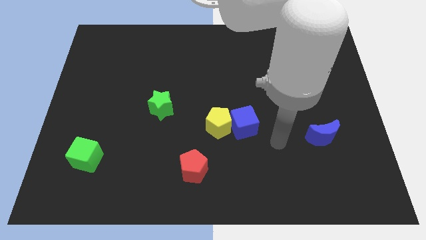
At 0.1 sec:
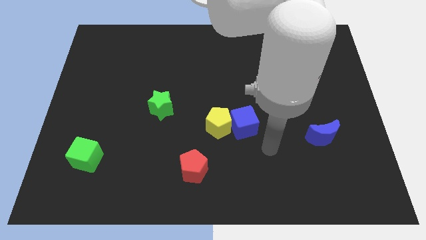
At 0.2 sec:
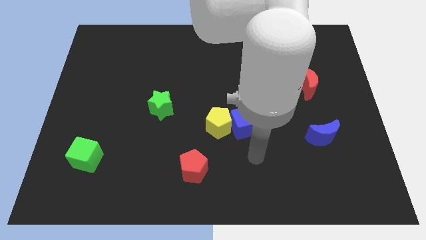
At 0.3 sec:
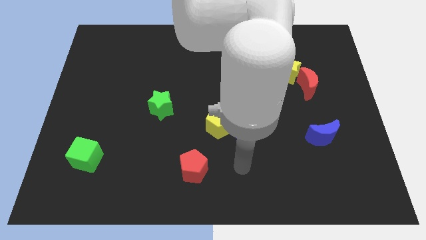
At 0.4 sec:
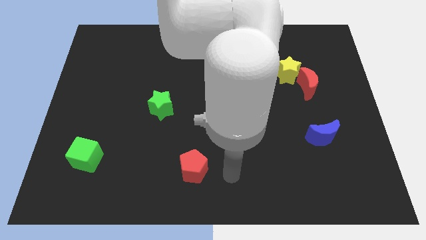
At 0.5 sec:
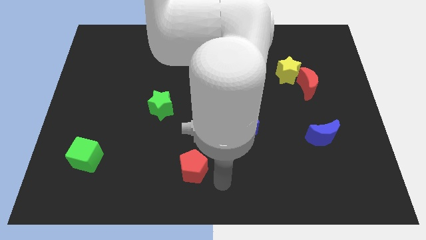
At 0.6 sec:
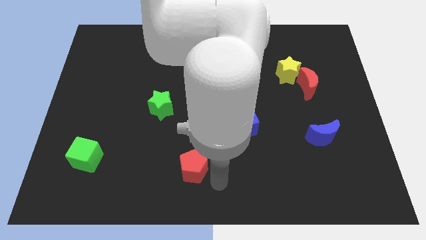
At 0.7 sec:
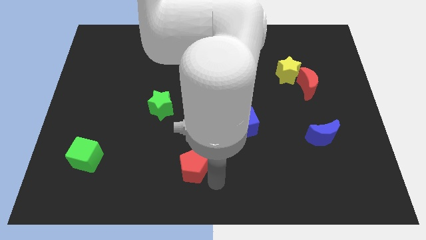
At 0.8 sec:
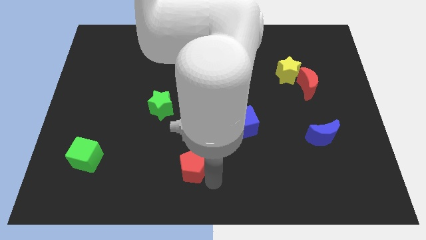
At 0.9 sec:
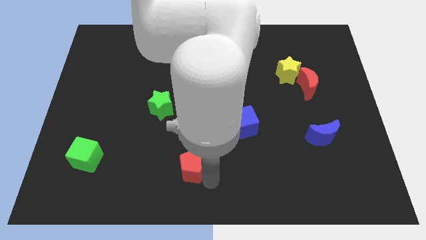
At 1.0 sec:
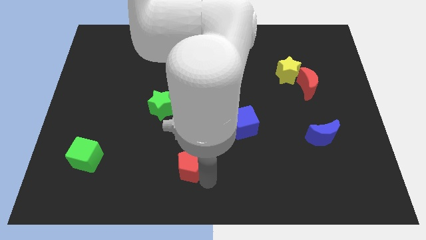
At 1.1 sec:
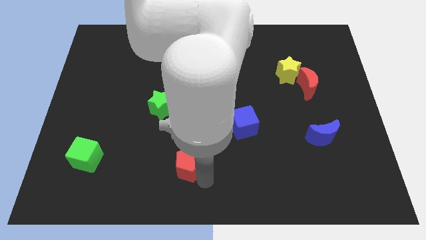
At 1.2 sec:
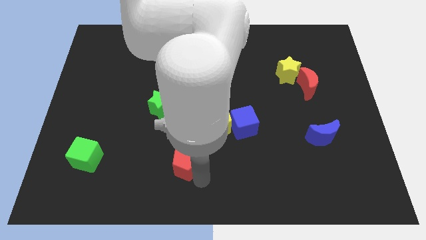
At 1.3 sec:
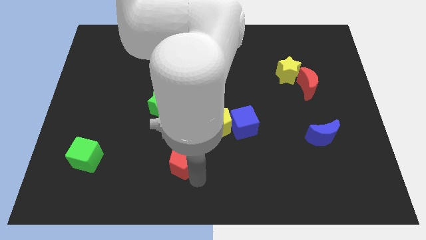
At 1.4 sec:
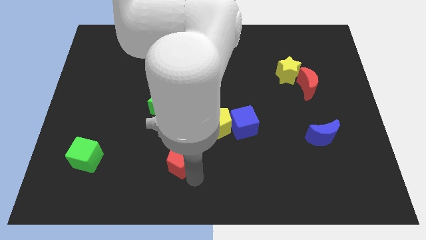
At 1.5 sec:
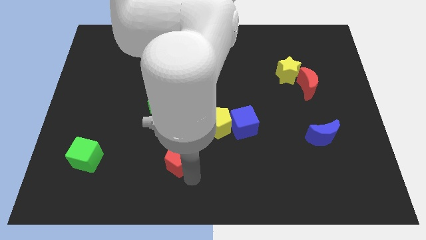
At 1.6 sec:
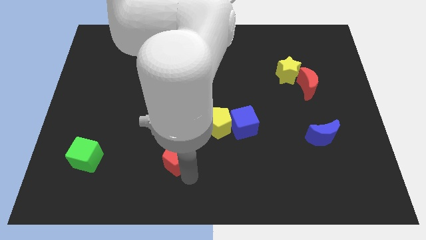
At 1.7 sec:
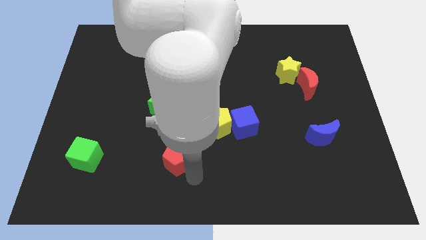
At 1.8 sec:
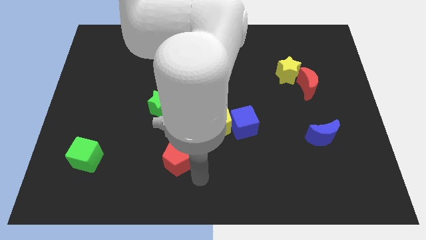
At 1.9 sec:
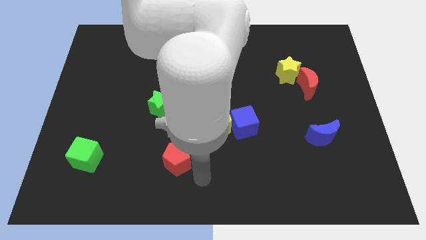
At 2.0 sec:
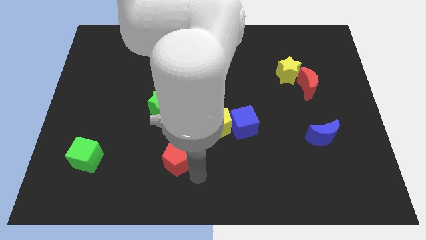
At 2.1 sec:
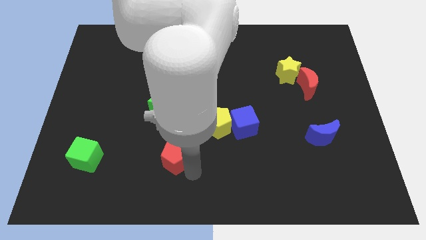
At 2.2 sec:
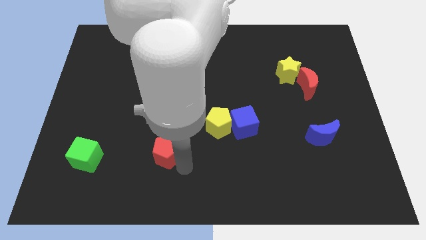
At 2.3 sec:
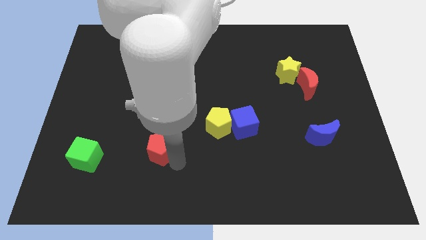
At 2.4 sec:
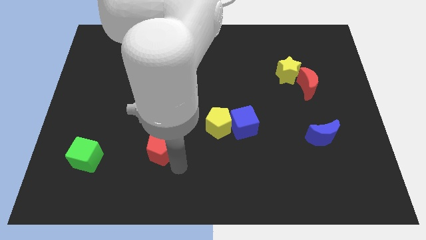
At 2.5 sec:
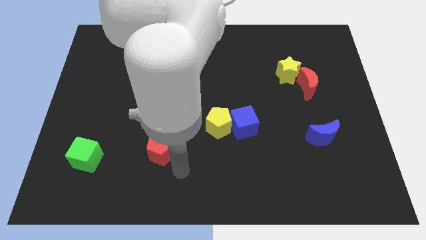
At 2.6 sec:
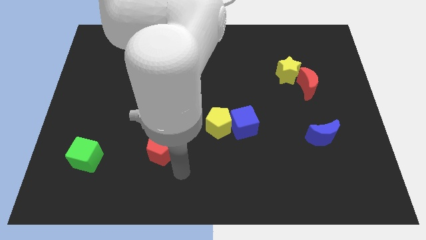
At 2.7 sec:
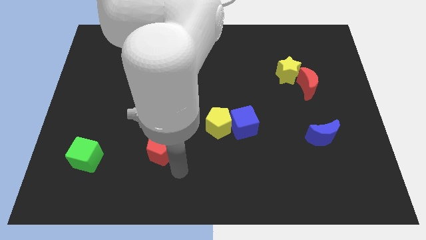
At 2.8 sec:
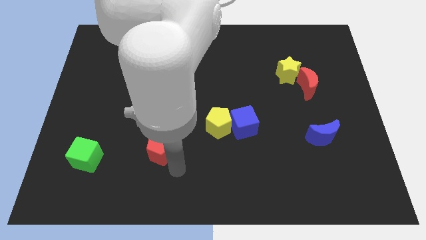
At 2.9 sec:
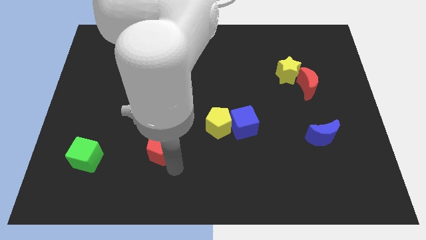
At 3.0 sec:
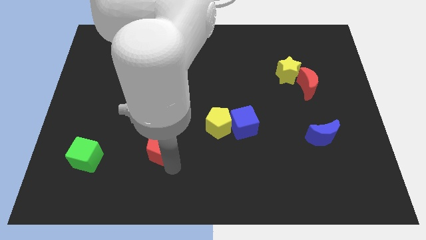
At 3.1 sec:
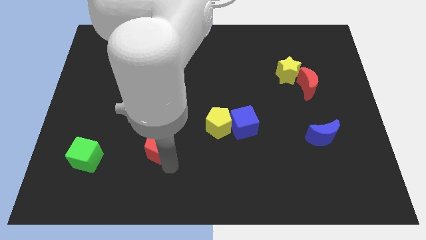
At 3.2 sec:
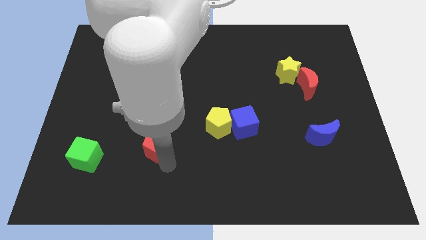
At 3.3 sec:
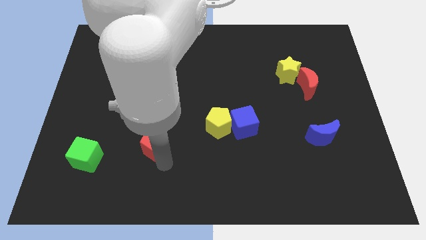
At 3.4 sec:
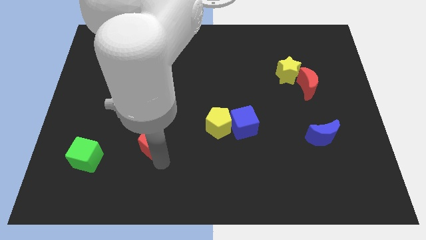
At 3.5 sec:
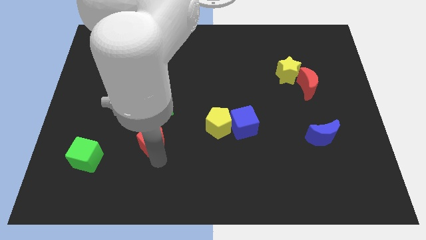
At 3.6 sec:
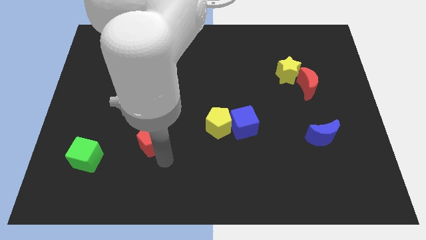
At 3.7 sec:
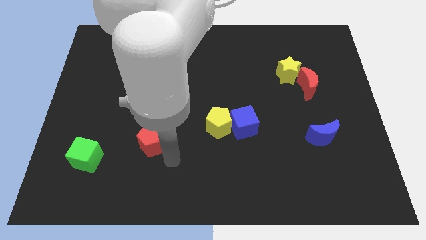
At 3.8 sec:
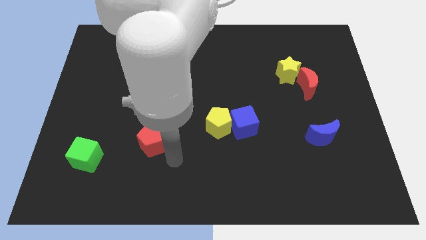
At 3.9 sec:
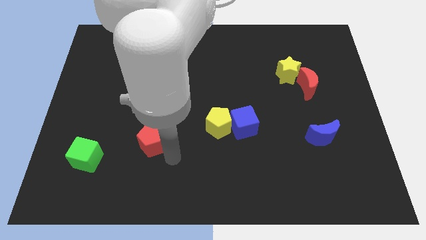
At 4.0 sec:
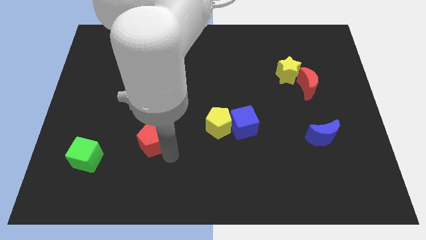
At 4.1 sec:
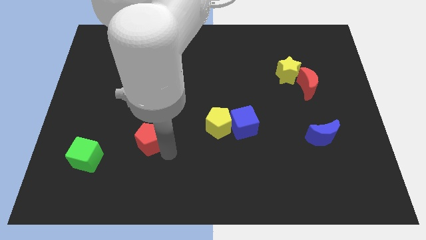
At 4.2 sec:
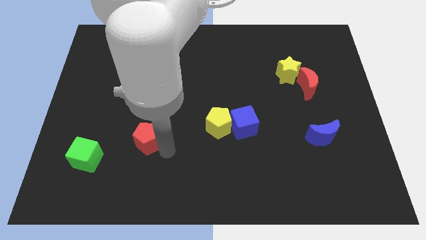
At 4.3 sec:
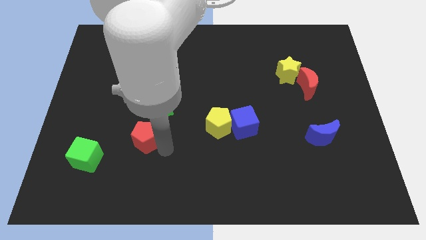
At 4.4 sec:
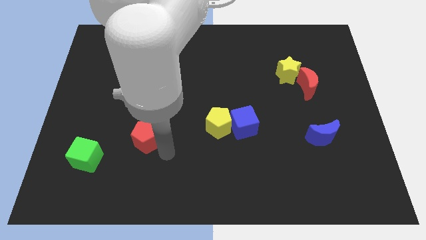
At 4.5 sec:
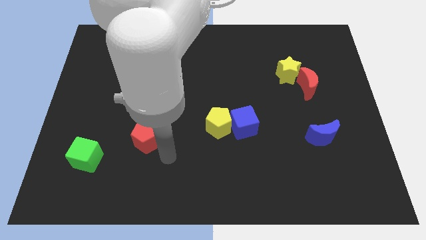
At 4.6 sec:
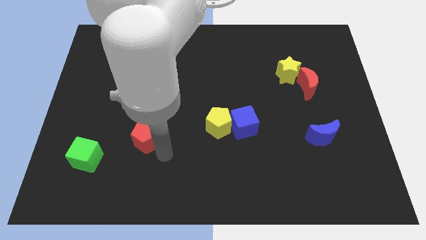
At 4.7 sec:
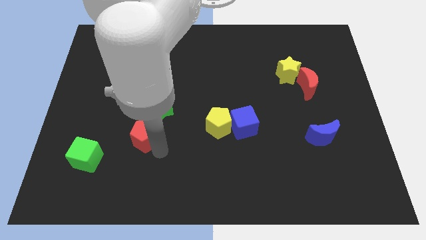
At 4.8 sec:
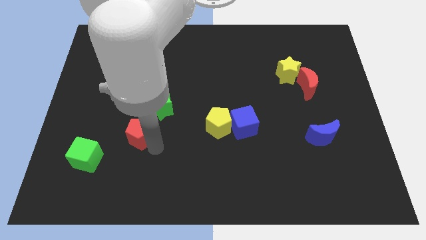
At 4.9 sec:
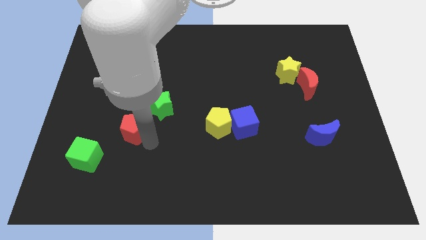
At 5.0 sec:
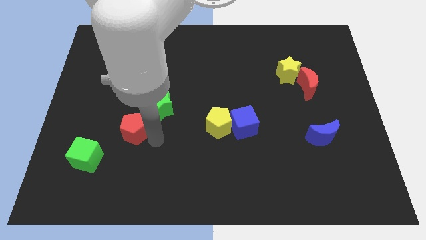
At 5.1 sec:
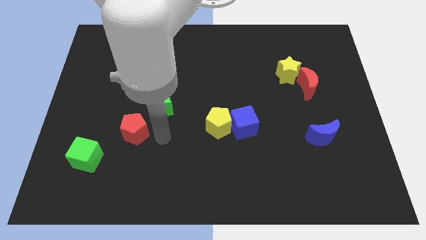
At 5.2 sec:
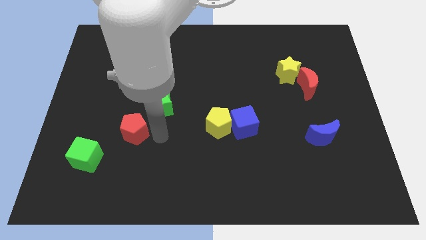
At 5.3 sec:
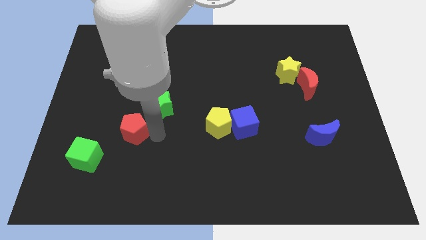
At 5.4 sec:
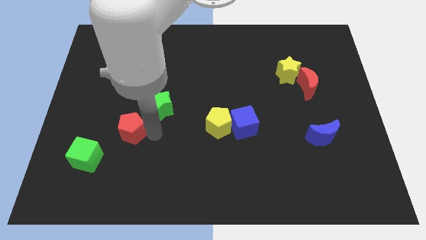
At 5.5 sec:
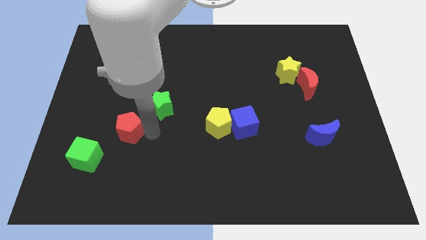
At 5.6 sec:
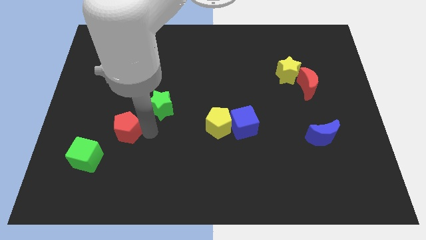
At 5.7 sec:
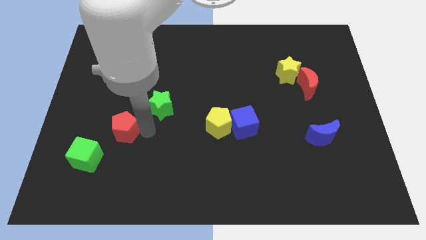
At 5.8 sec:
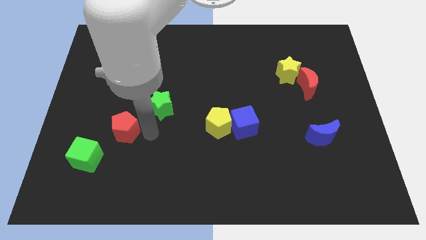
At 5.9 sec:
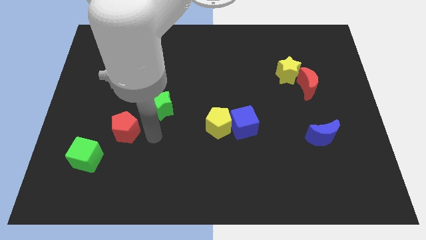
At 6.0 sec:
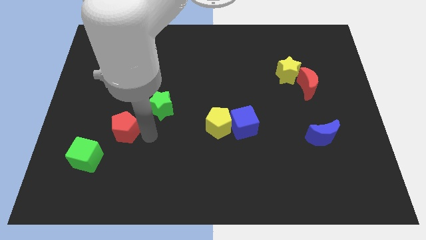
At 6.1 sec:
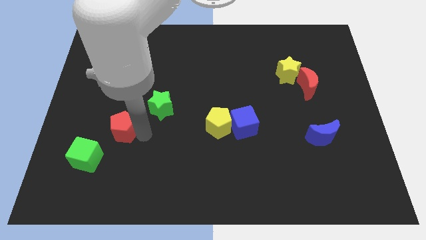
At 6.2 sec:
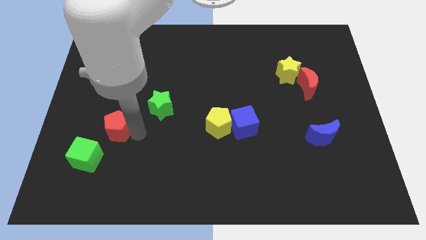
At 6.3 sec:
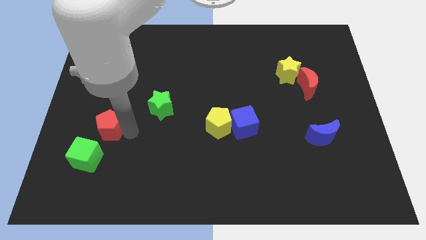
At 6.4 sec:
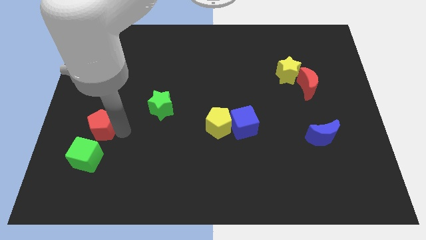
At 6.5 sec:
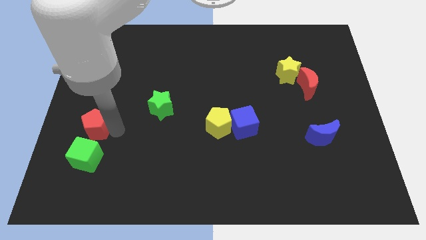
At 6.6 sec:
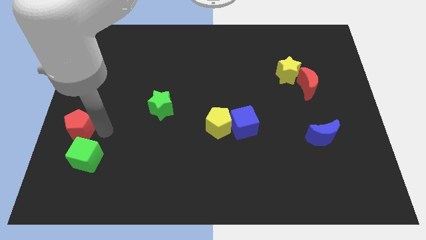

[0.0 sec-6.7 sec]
put the red pentagon to the left side
